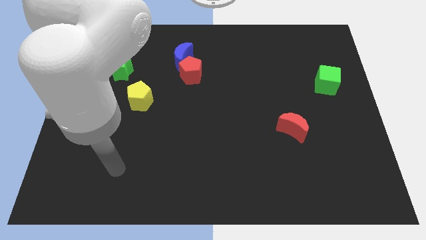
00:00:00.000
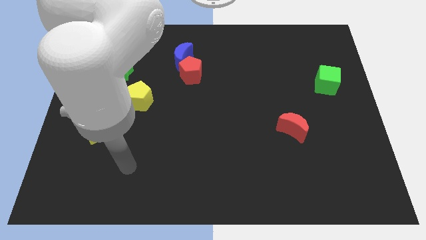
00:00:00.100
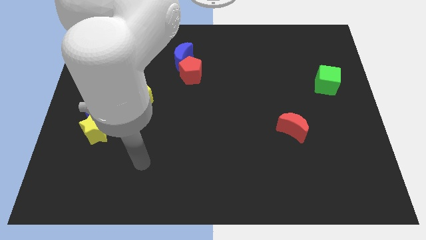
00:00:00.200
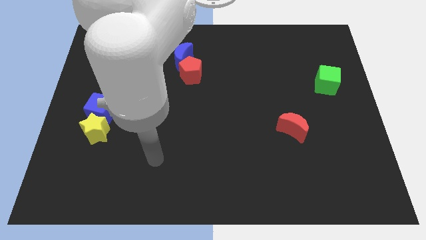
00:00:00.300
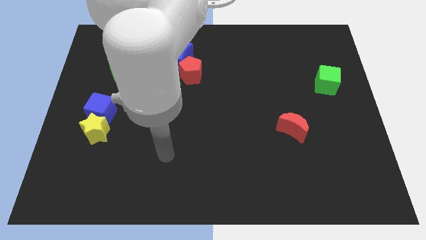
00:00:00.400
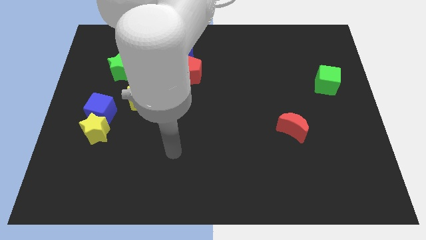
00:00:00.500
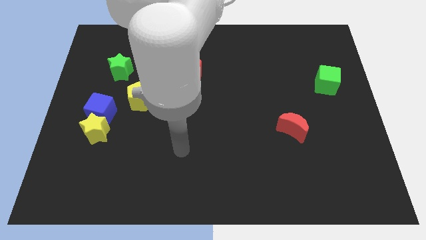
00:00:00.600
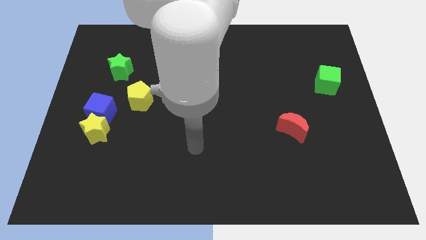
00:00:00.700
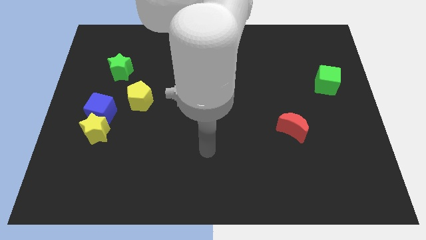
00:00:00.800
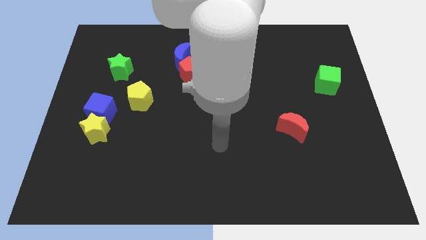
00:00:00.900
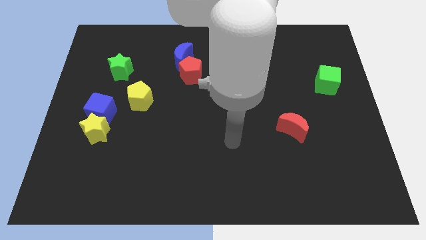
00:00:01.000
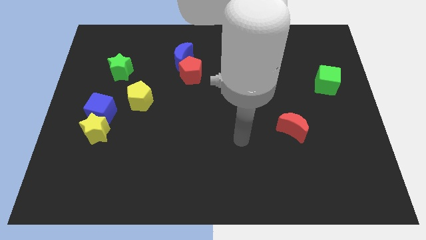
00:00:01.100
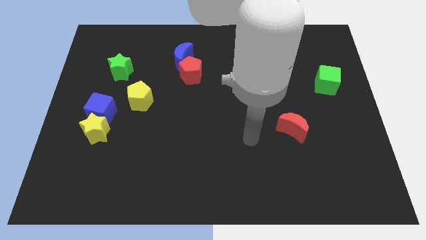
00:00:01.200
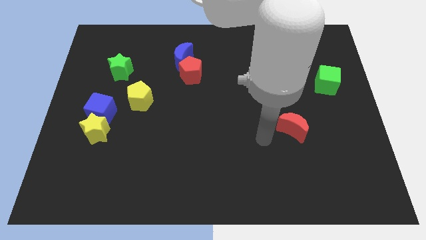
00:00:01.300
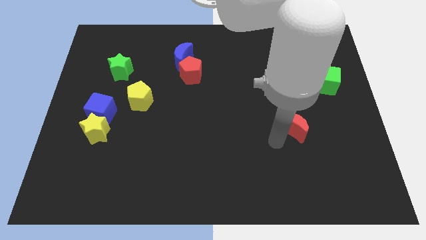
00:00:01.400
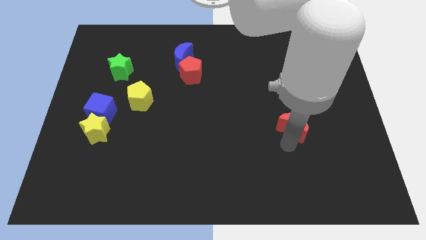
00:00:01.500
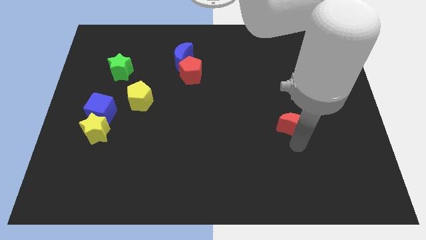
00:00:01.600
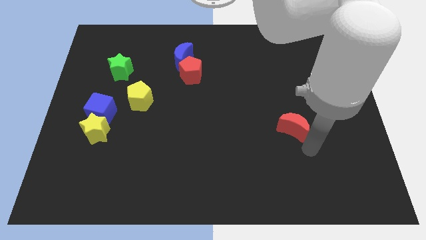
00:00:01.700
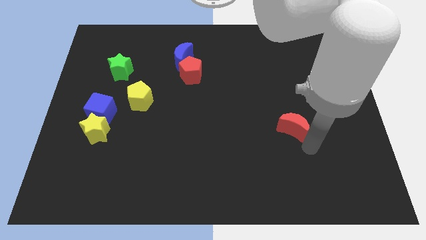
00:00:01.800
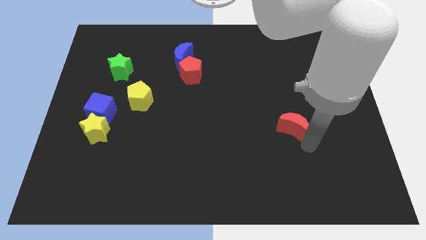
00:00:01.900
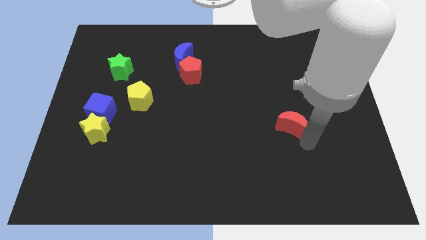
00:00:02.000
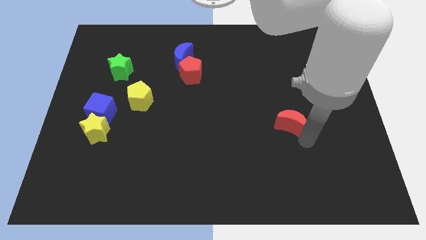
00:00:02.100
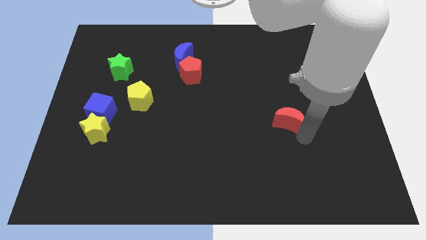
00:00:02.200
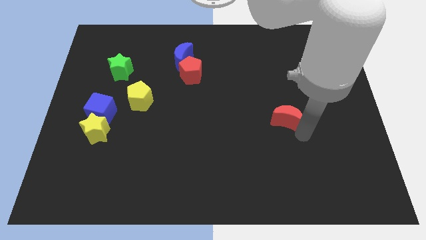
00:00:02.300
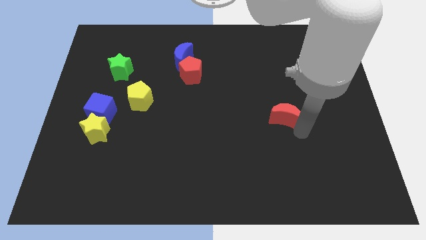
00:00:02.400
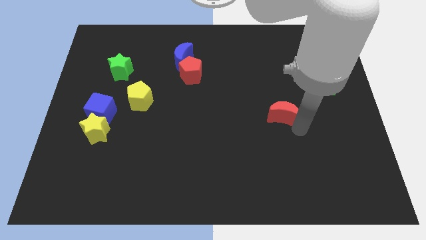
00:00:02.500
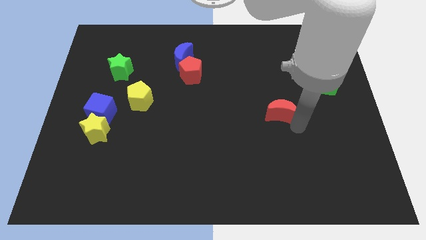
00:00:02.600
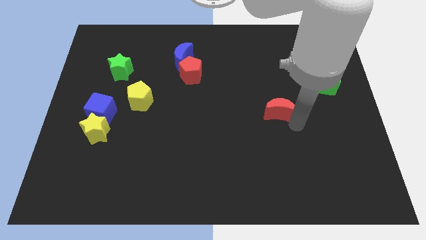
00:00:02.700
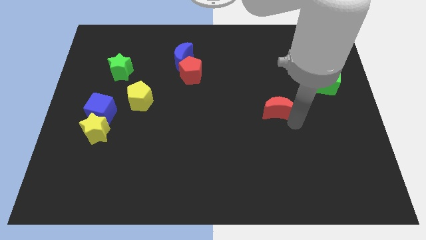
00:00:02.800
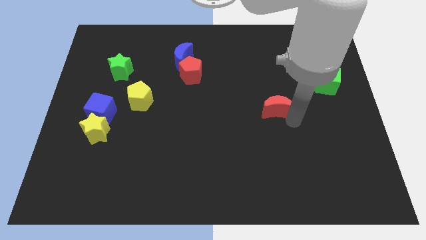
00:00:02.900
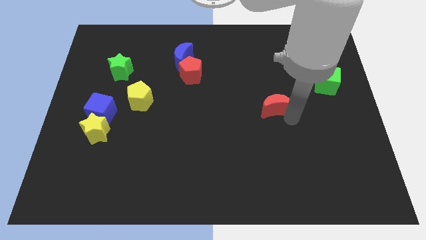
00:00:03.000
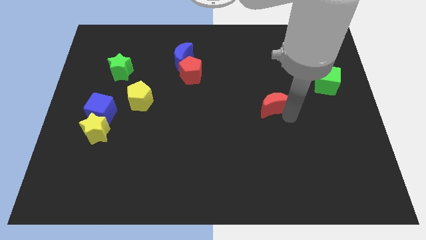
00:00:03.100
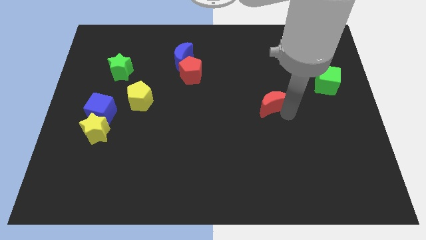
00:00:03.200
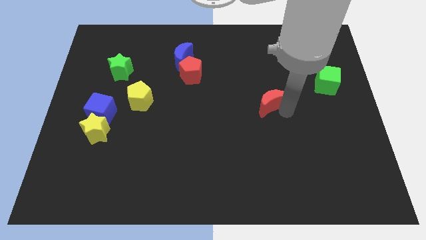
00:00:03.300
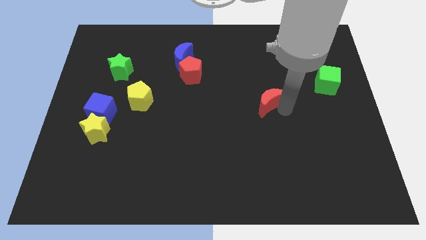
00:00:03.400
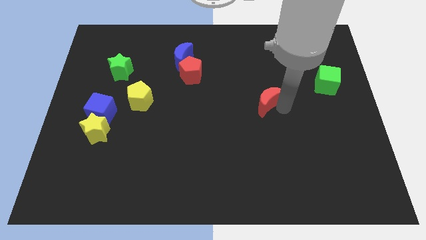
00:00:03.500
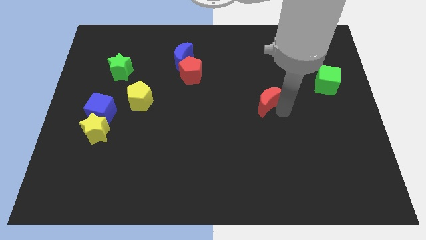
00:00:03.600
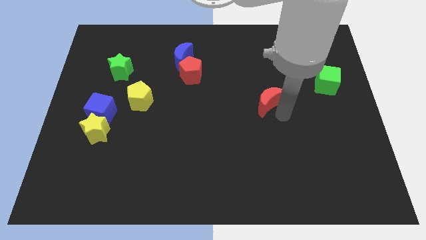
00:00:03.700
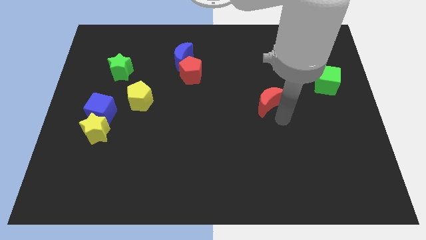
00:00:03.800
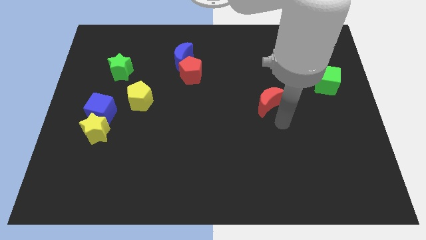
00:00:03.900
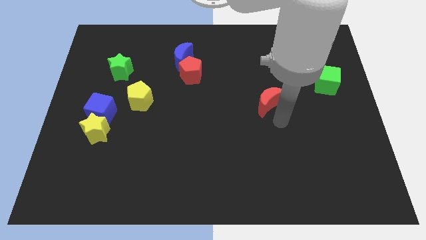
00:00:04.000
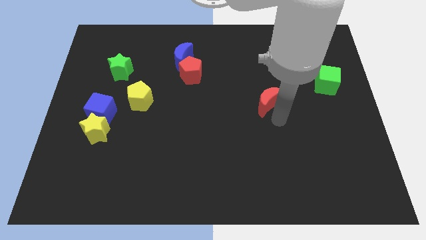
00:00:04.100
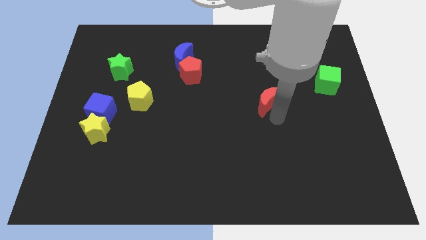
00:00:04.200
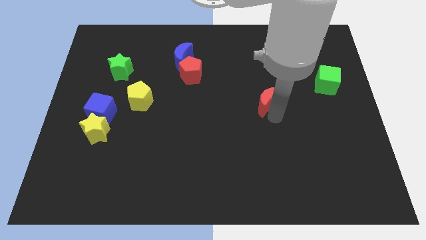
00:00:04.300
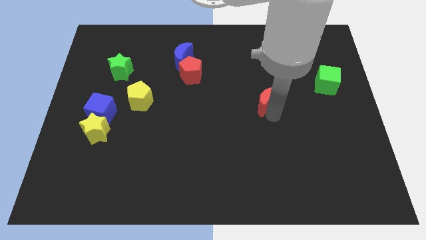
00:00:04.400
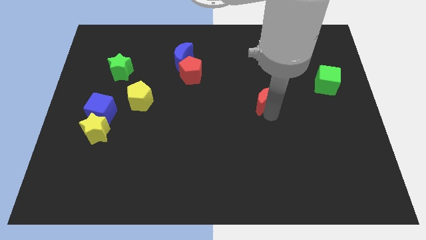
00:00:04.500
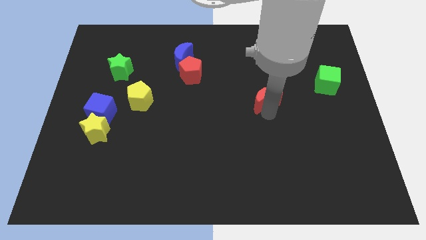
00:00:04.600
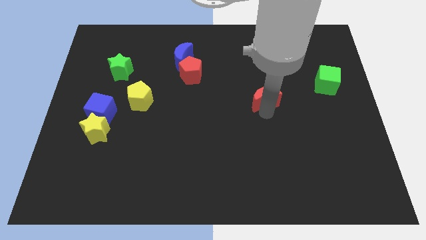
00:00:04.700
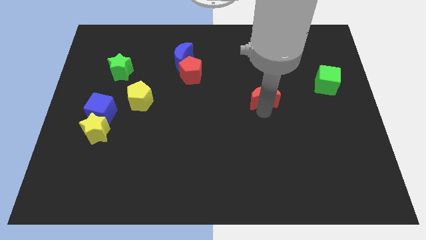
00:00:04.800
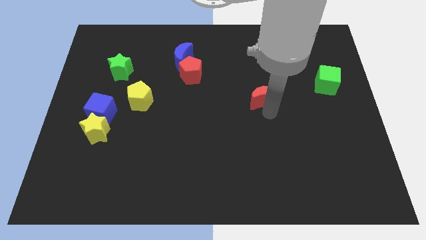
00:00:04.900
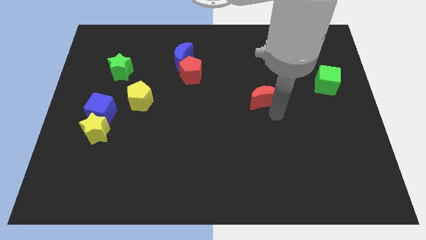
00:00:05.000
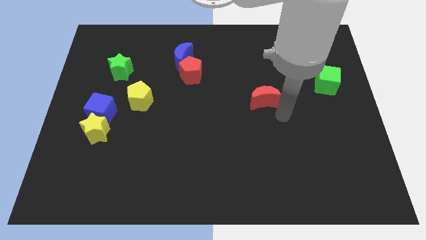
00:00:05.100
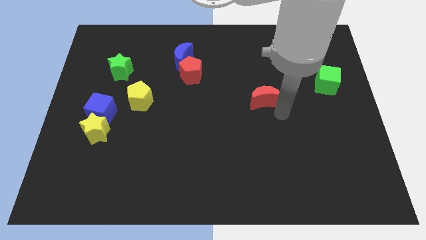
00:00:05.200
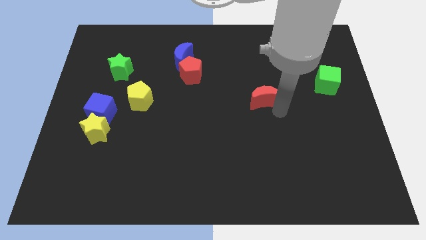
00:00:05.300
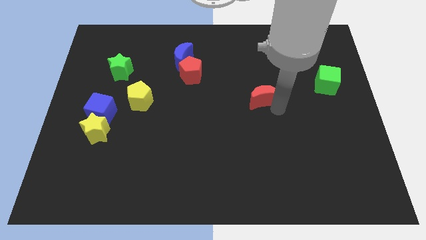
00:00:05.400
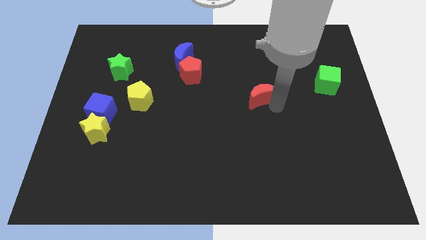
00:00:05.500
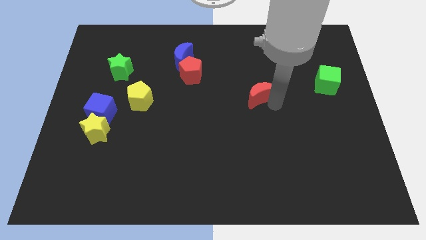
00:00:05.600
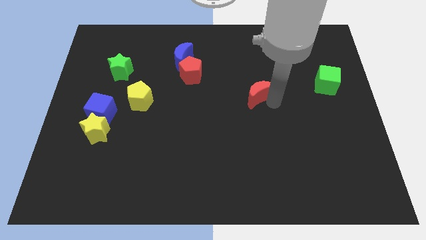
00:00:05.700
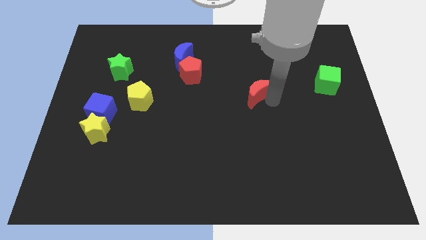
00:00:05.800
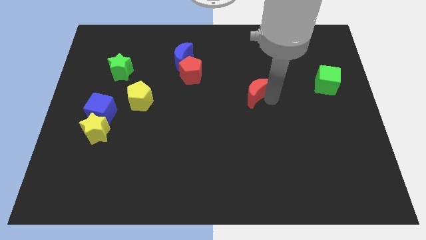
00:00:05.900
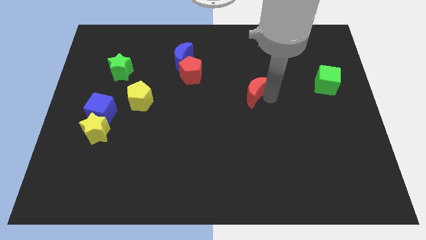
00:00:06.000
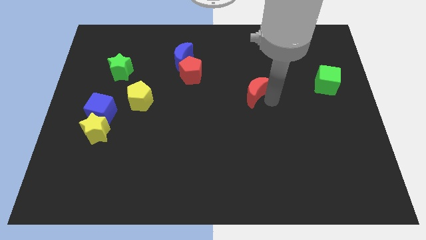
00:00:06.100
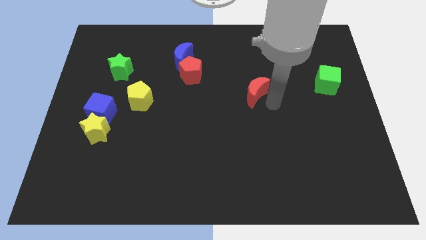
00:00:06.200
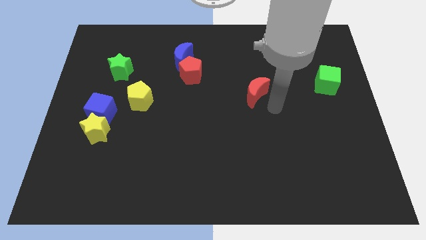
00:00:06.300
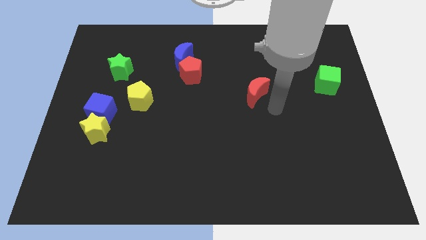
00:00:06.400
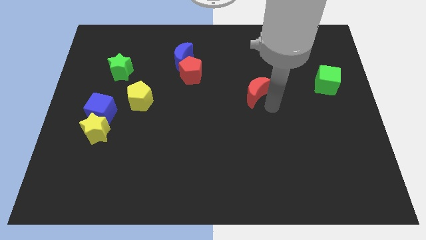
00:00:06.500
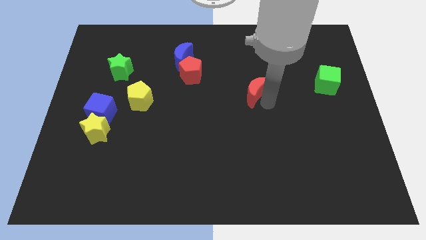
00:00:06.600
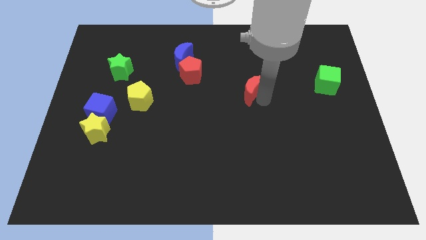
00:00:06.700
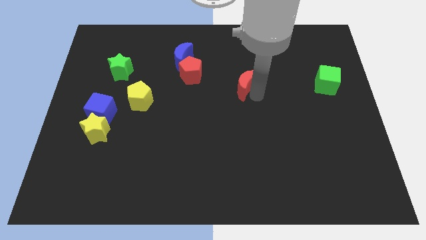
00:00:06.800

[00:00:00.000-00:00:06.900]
push the red moon just right of the red pentagon
